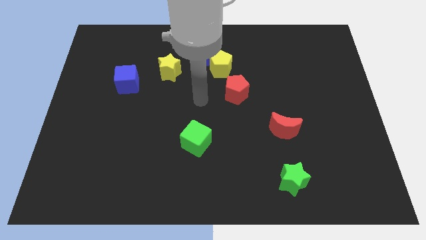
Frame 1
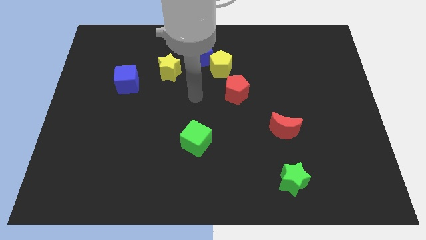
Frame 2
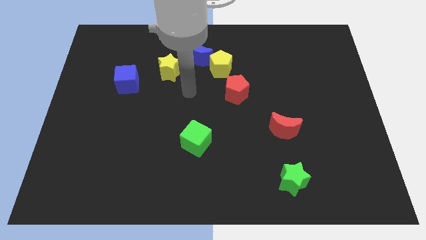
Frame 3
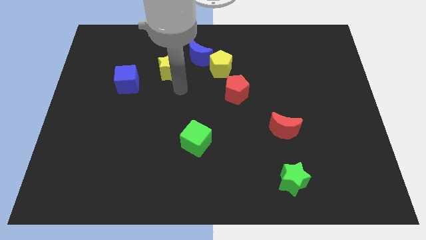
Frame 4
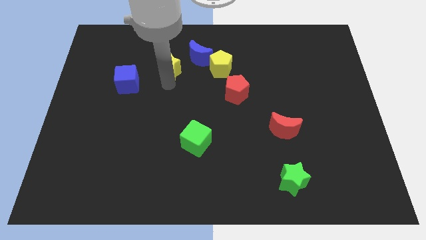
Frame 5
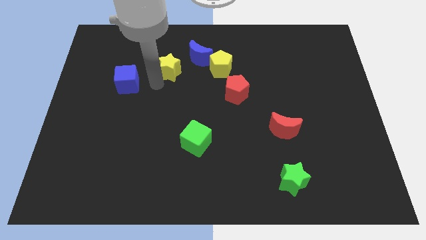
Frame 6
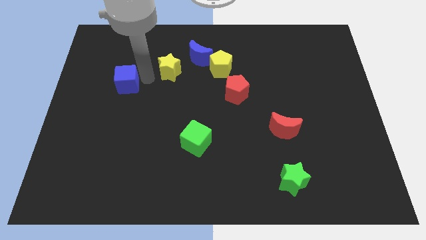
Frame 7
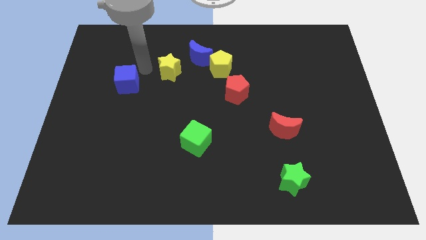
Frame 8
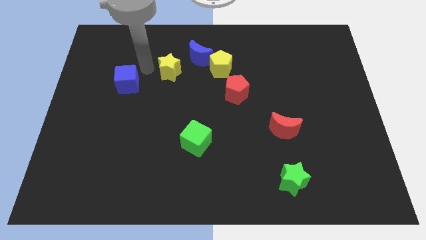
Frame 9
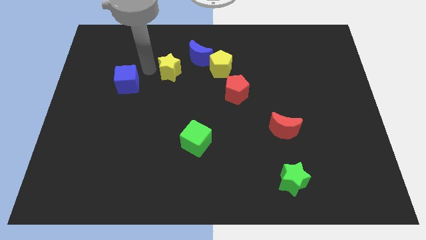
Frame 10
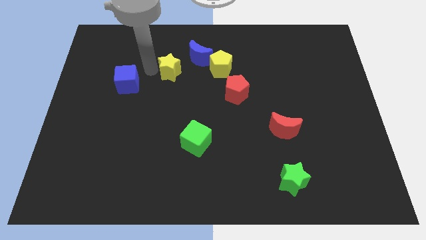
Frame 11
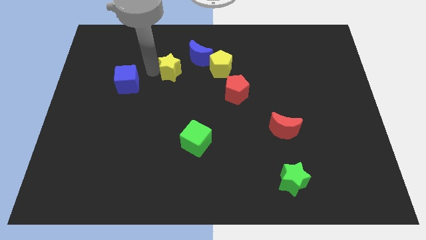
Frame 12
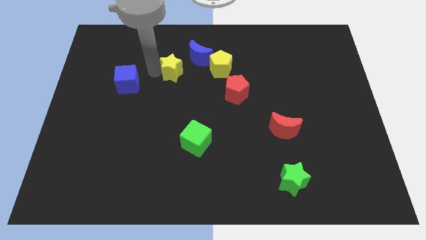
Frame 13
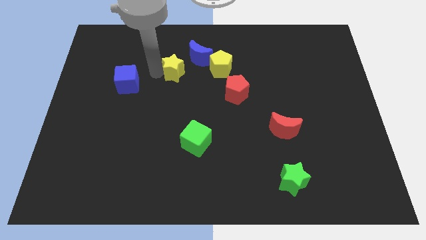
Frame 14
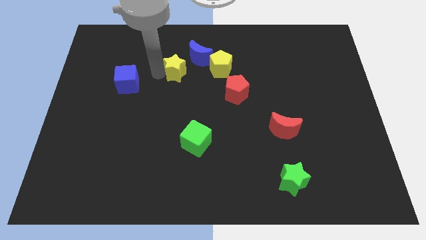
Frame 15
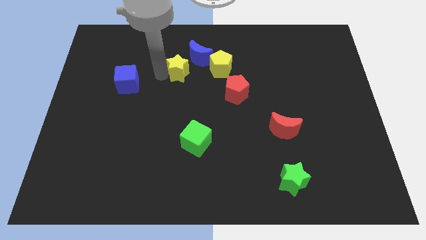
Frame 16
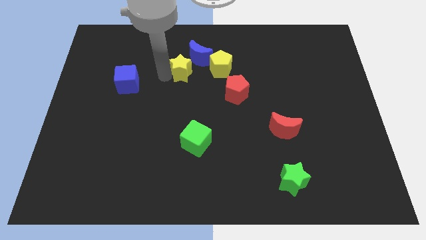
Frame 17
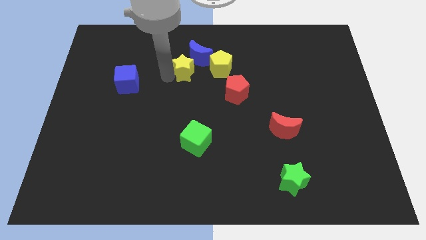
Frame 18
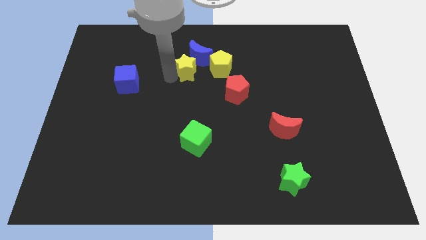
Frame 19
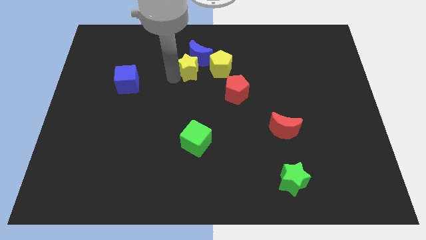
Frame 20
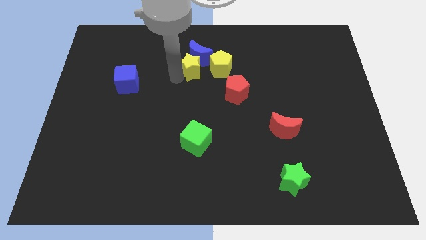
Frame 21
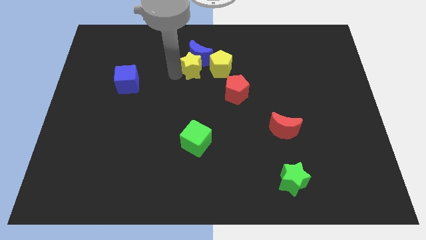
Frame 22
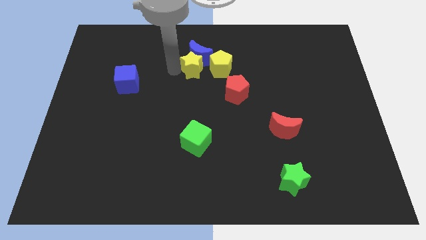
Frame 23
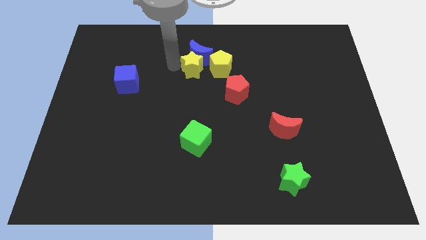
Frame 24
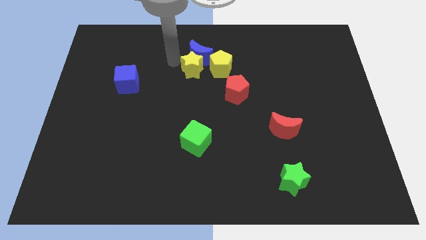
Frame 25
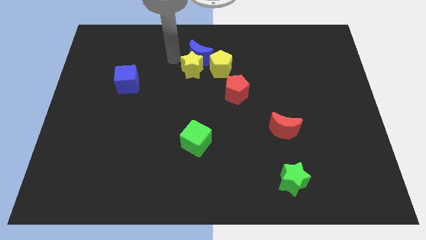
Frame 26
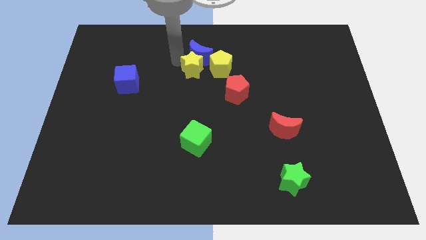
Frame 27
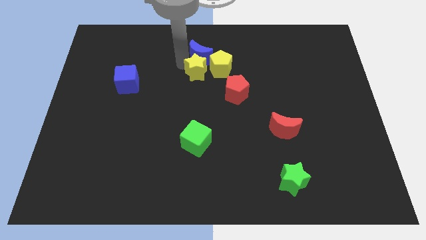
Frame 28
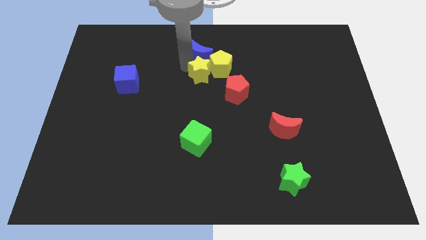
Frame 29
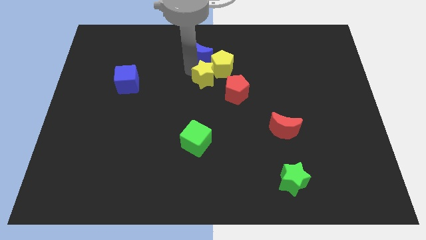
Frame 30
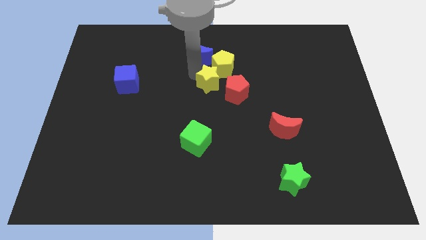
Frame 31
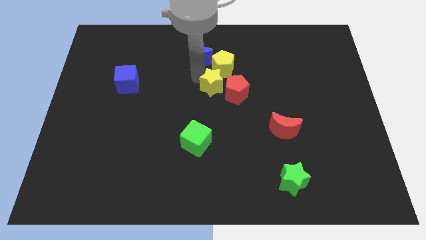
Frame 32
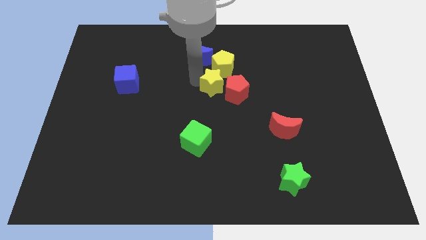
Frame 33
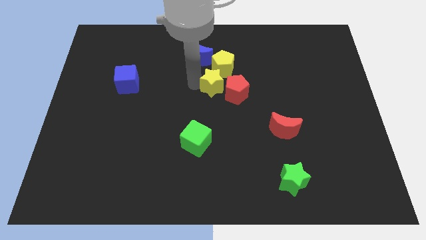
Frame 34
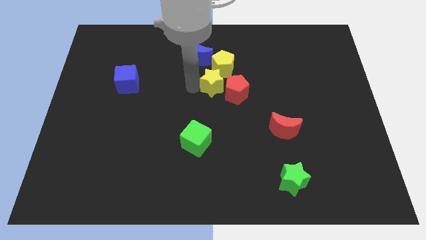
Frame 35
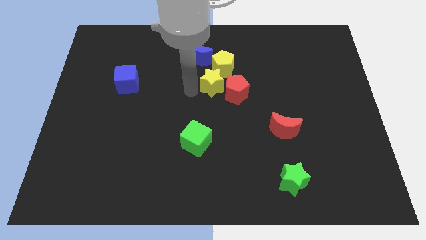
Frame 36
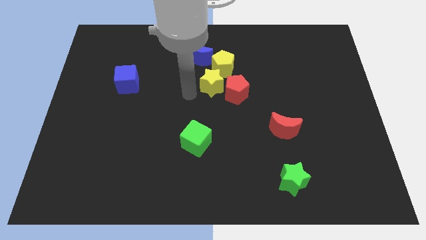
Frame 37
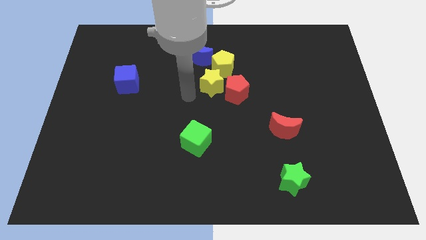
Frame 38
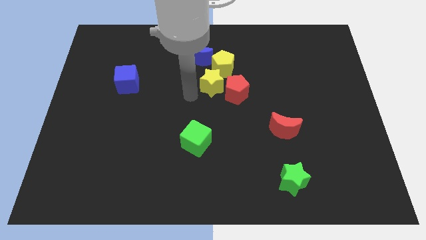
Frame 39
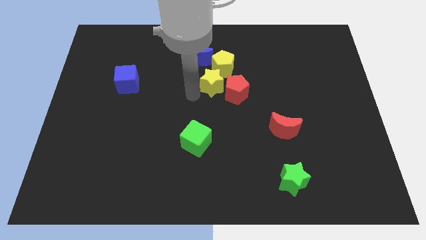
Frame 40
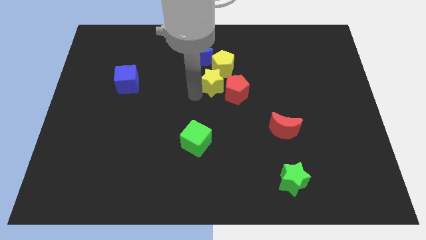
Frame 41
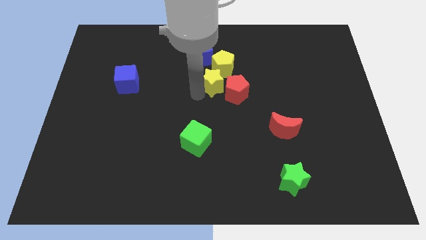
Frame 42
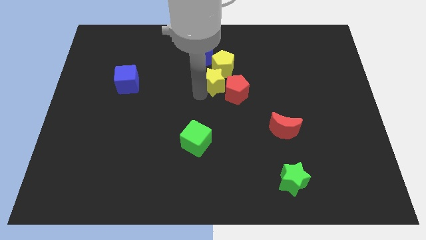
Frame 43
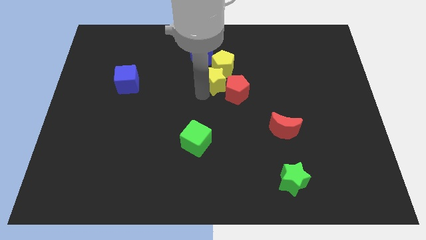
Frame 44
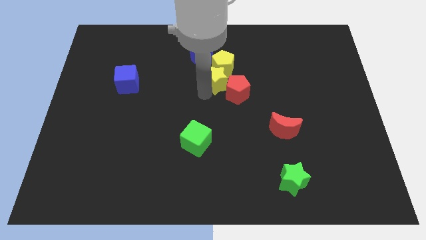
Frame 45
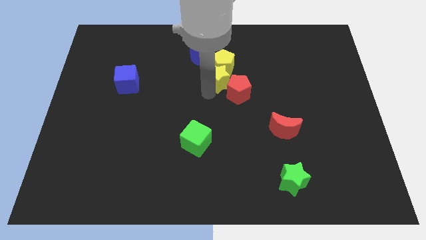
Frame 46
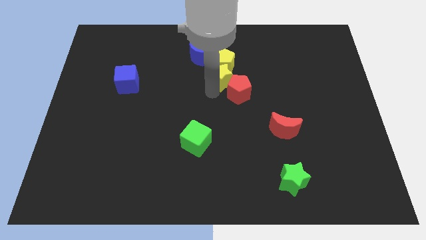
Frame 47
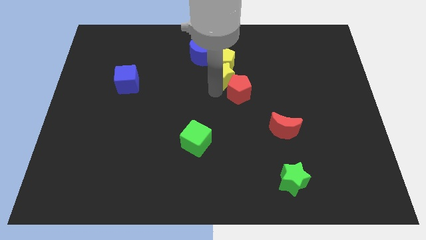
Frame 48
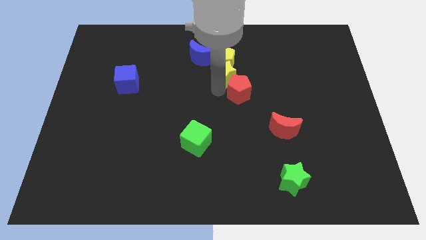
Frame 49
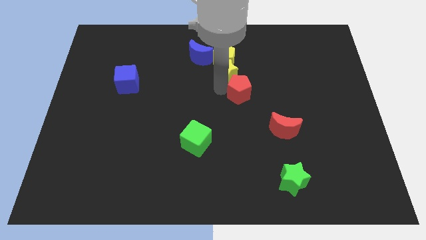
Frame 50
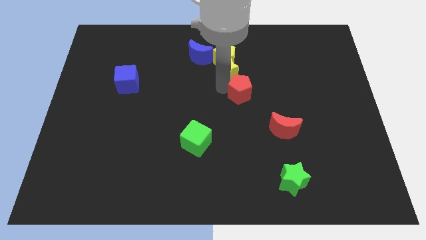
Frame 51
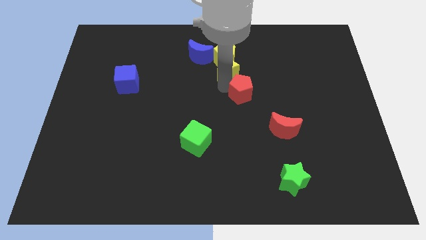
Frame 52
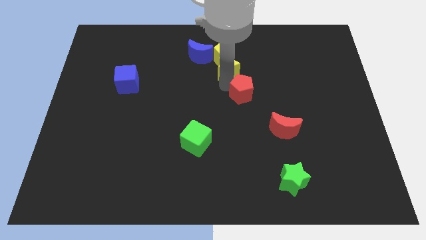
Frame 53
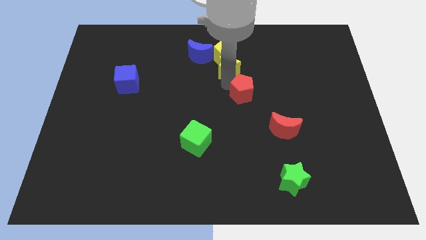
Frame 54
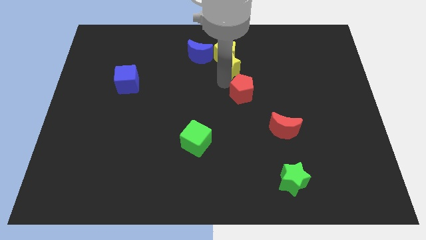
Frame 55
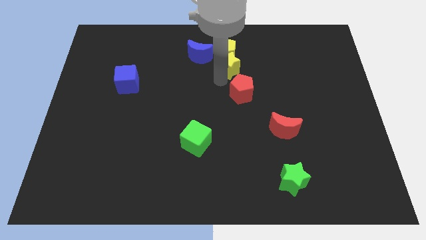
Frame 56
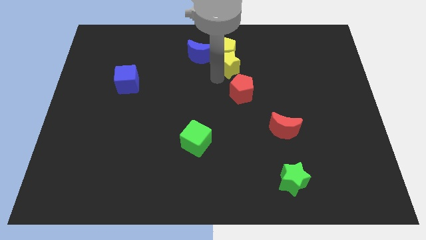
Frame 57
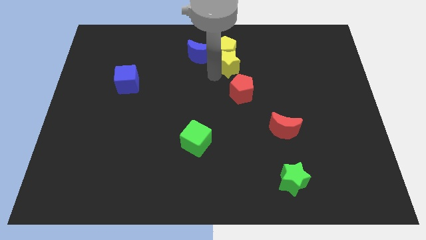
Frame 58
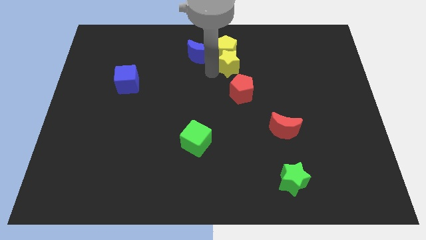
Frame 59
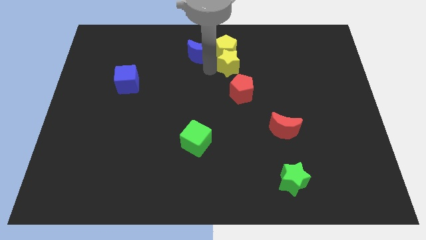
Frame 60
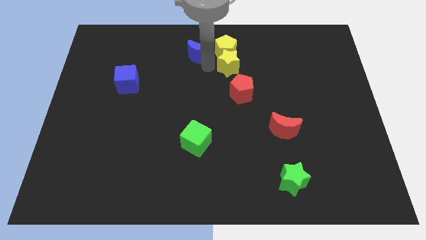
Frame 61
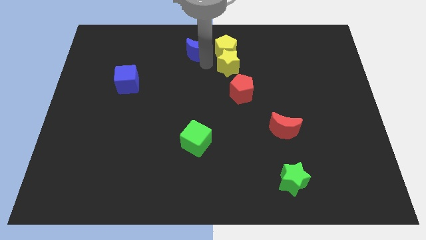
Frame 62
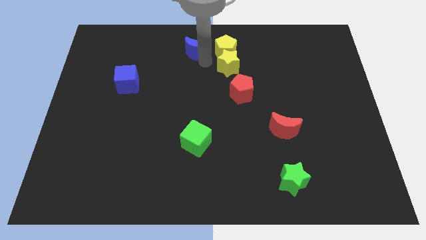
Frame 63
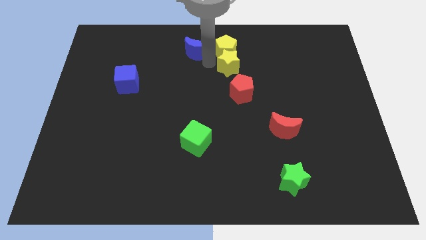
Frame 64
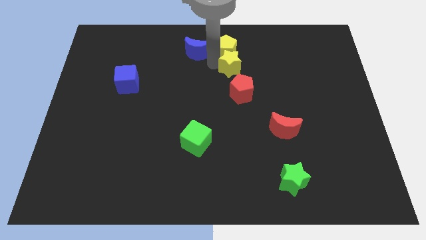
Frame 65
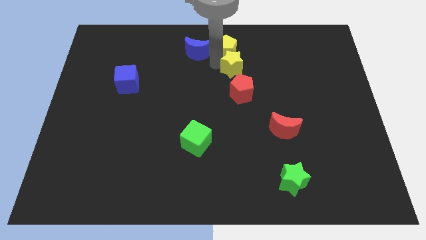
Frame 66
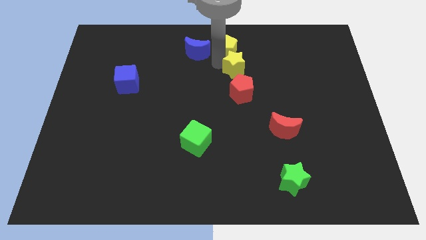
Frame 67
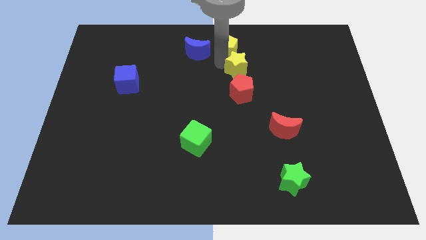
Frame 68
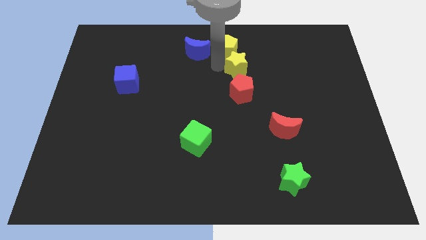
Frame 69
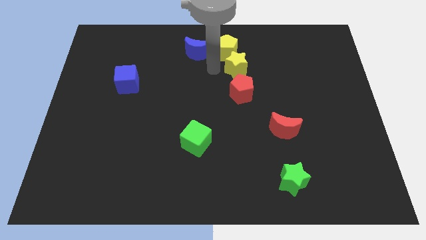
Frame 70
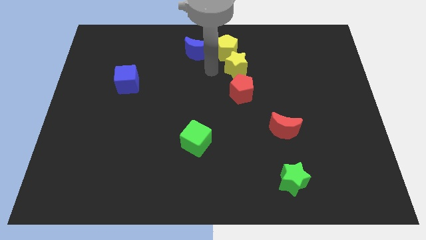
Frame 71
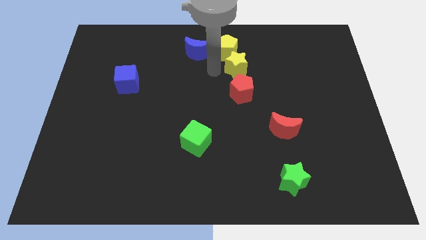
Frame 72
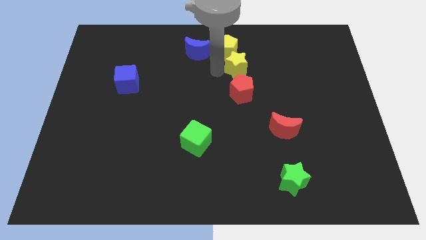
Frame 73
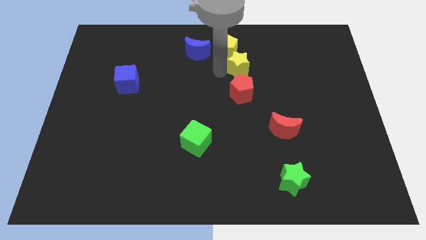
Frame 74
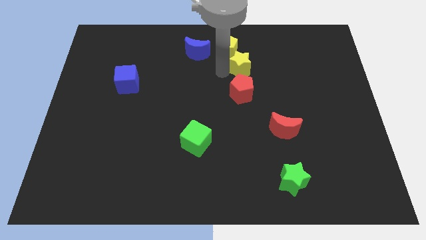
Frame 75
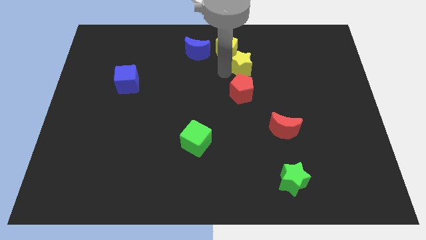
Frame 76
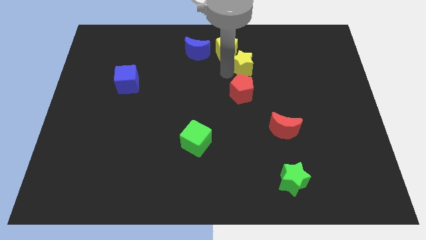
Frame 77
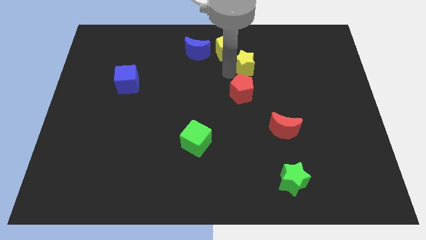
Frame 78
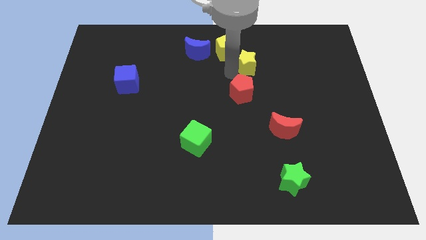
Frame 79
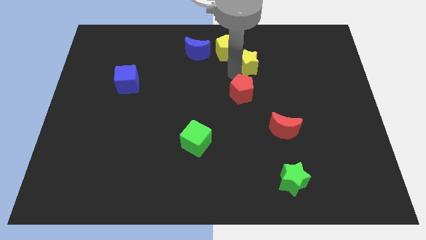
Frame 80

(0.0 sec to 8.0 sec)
slide the yellow star right
